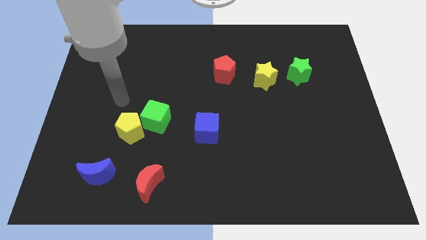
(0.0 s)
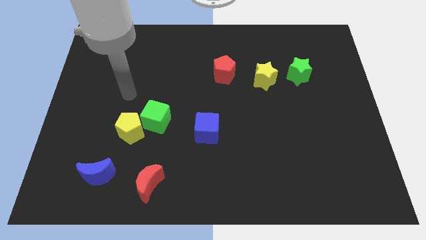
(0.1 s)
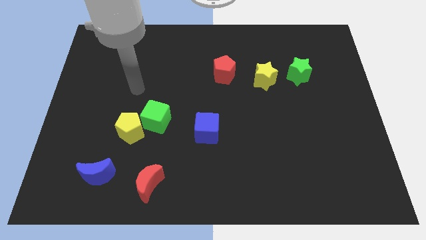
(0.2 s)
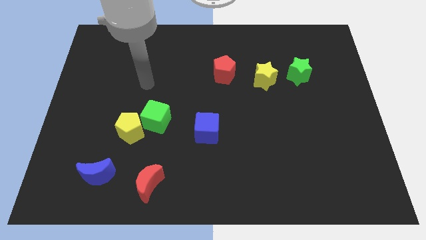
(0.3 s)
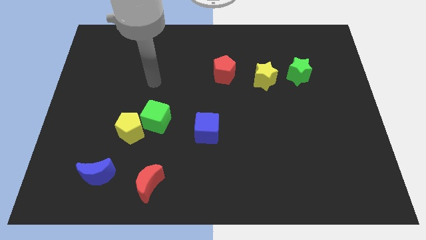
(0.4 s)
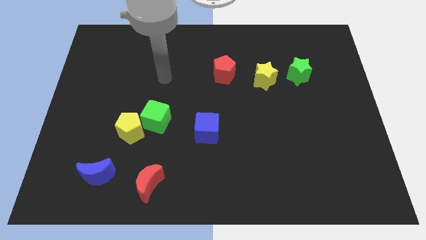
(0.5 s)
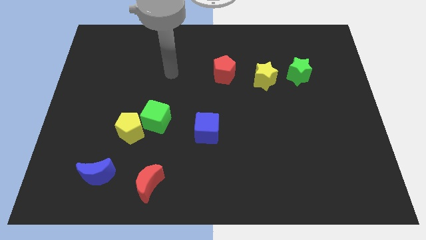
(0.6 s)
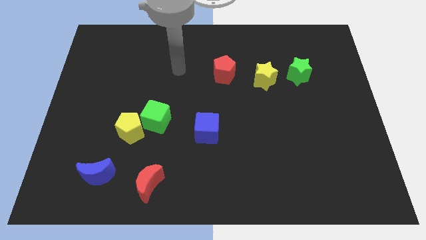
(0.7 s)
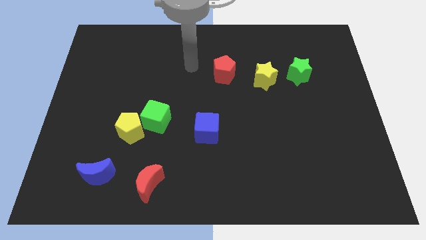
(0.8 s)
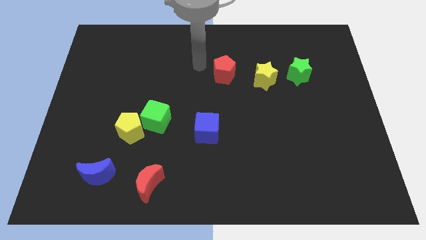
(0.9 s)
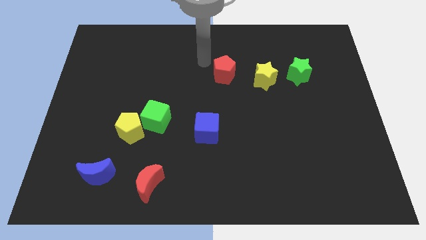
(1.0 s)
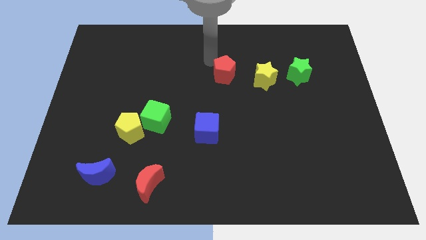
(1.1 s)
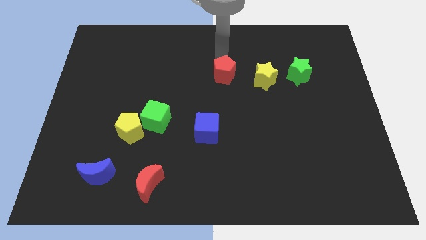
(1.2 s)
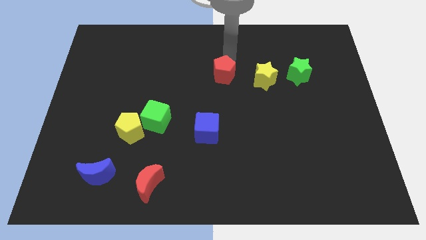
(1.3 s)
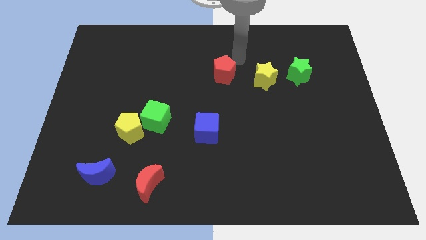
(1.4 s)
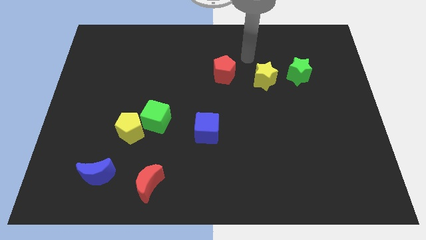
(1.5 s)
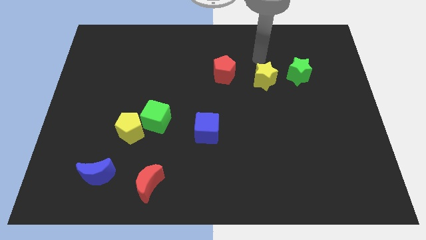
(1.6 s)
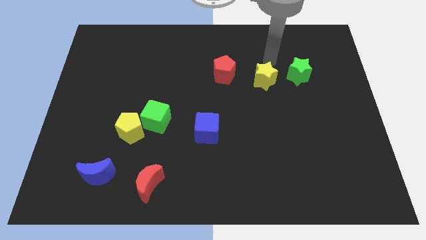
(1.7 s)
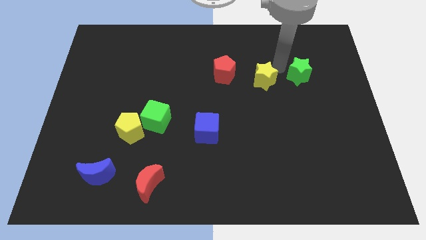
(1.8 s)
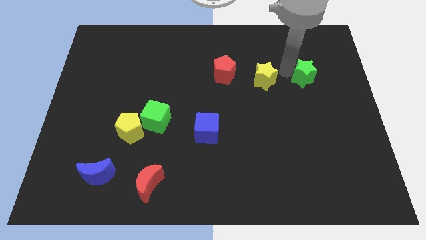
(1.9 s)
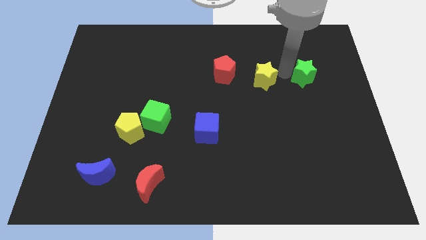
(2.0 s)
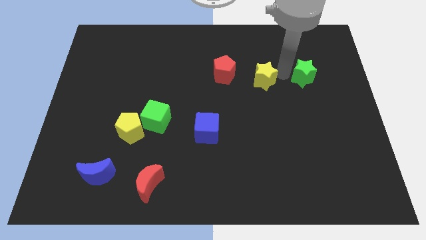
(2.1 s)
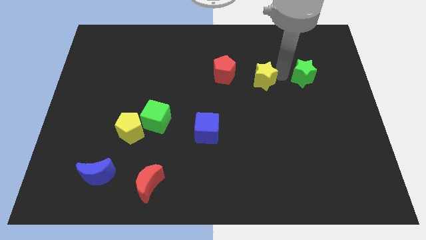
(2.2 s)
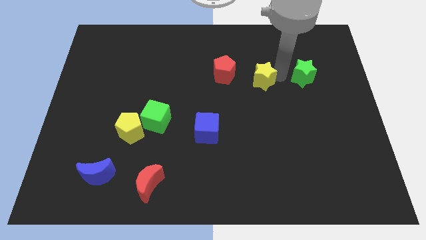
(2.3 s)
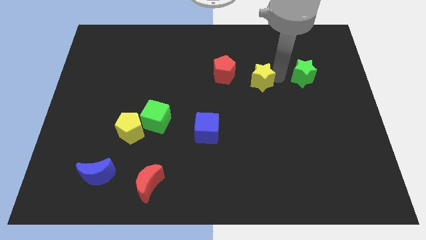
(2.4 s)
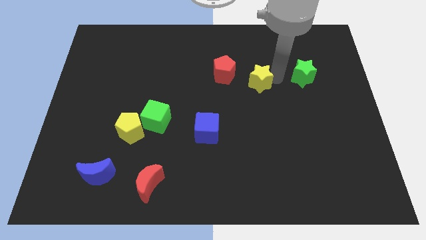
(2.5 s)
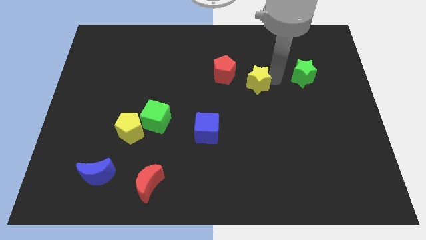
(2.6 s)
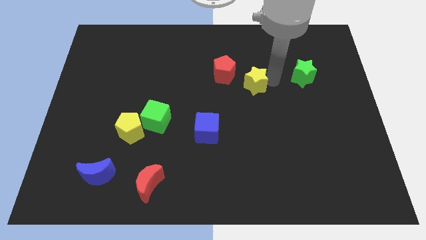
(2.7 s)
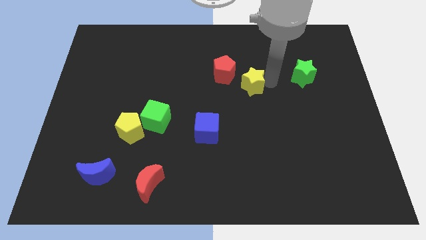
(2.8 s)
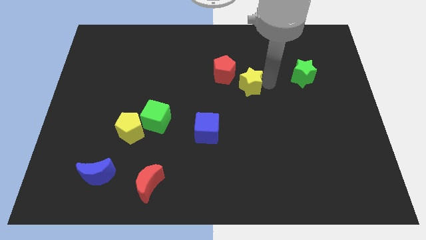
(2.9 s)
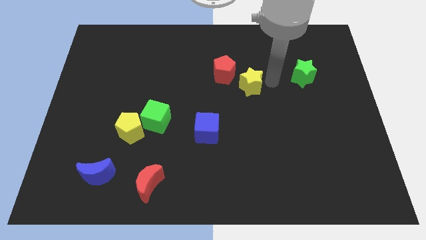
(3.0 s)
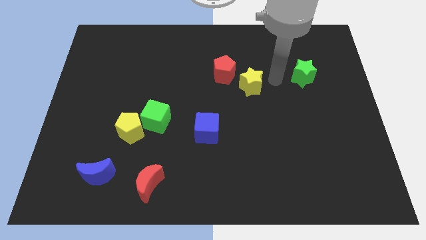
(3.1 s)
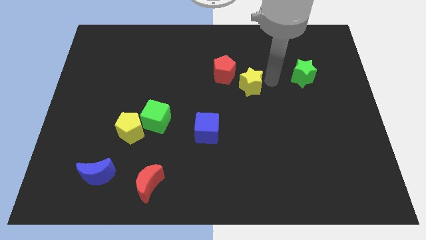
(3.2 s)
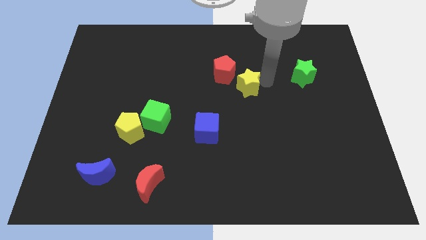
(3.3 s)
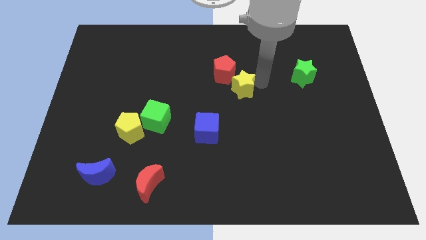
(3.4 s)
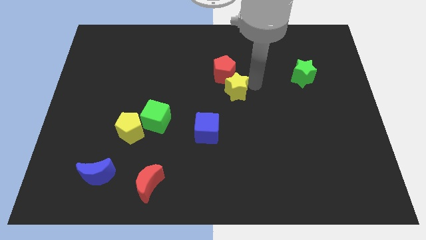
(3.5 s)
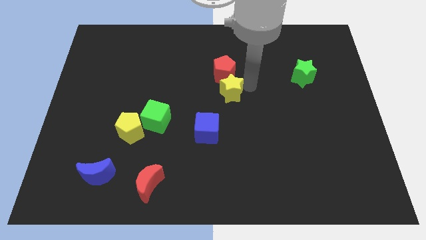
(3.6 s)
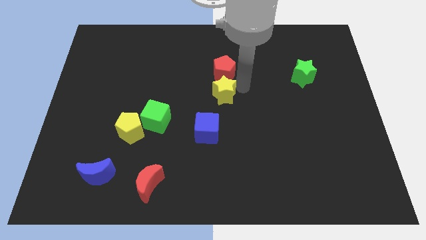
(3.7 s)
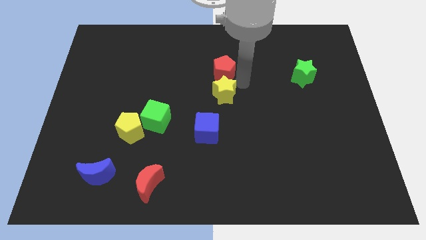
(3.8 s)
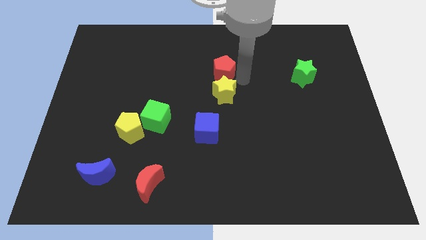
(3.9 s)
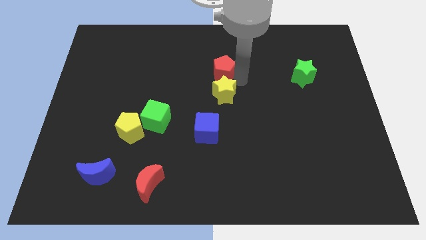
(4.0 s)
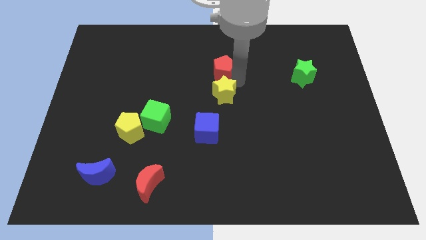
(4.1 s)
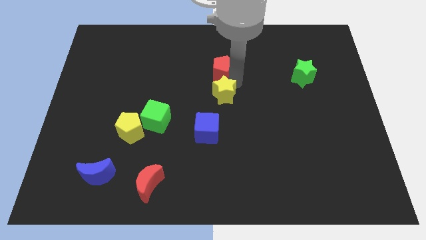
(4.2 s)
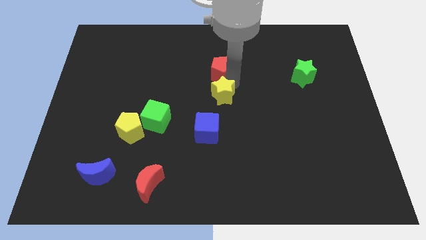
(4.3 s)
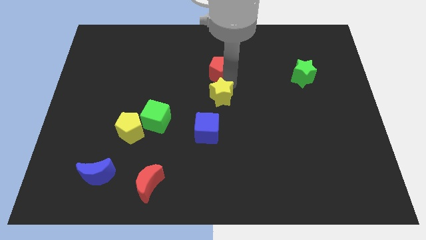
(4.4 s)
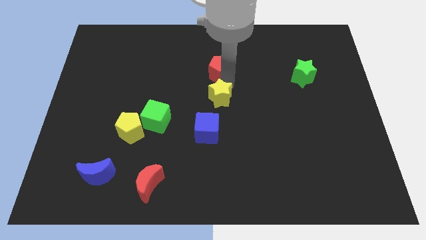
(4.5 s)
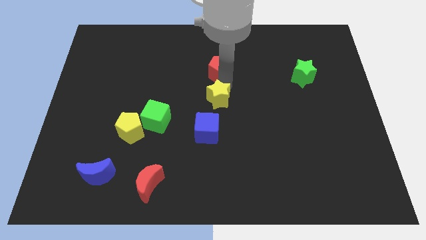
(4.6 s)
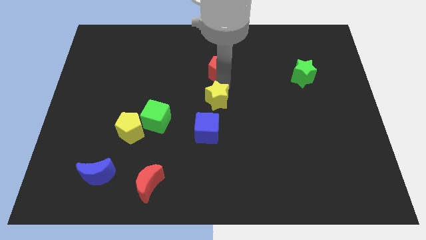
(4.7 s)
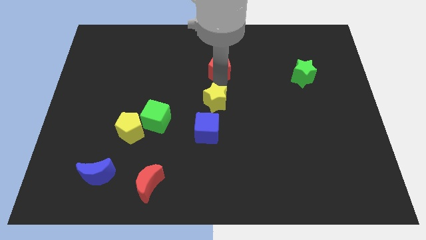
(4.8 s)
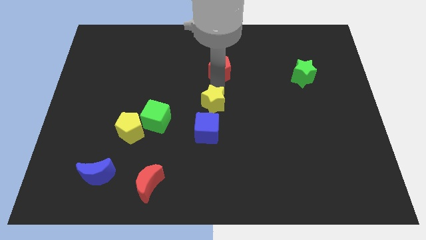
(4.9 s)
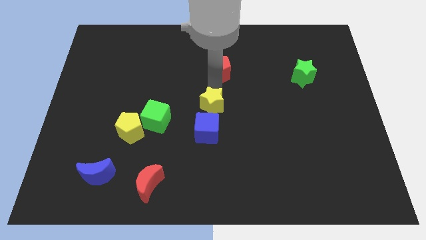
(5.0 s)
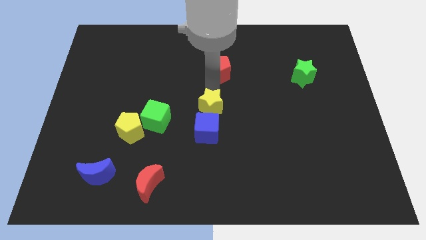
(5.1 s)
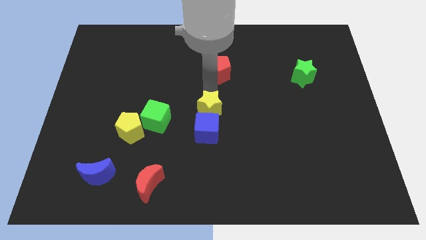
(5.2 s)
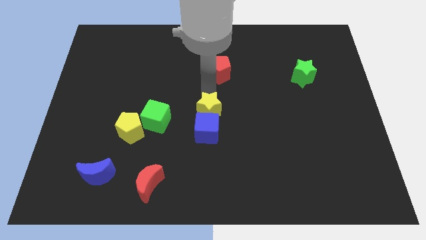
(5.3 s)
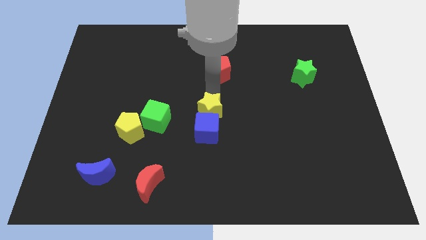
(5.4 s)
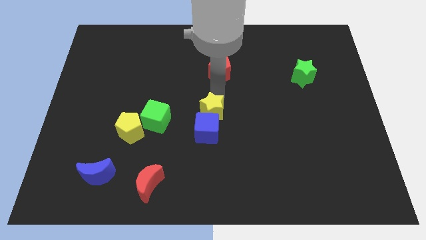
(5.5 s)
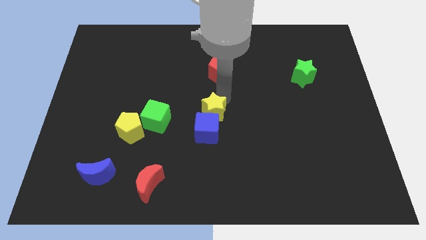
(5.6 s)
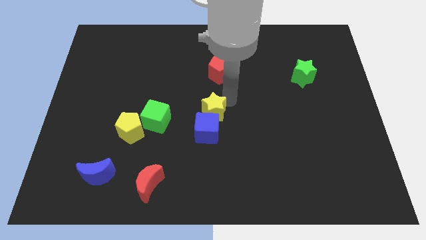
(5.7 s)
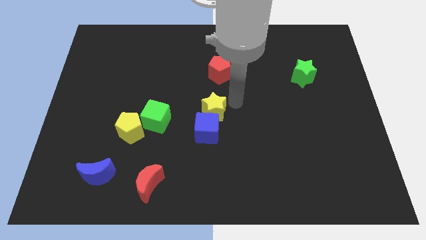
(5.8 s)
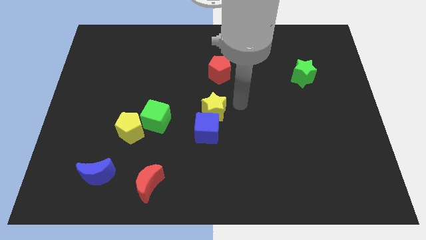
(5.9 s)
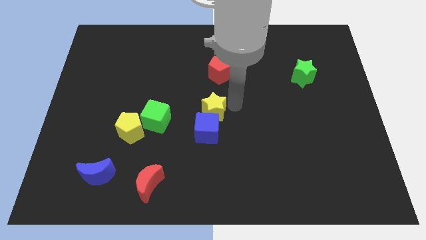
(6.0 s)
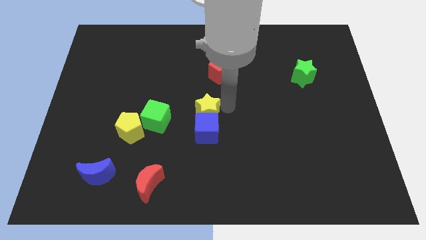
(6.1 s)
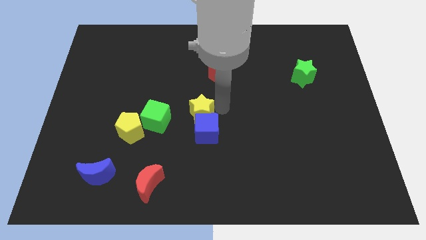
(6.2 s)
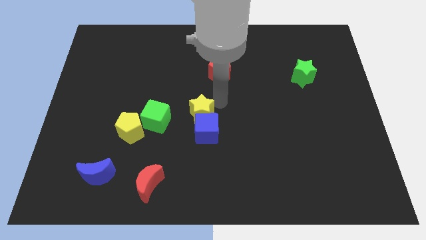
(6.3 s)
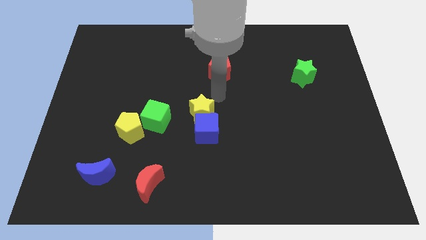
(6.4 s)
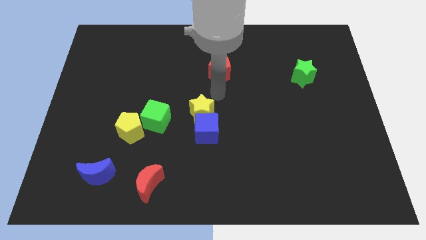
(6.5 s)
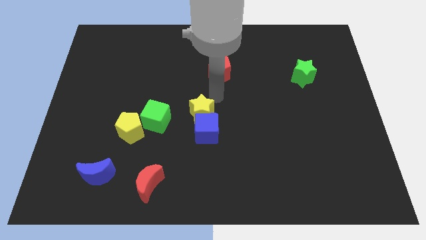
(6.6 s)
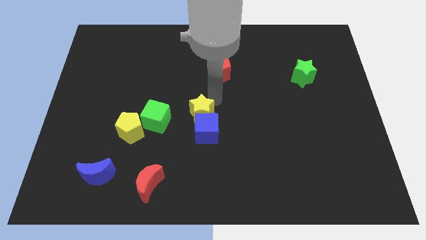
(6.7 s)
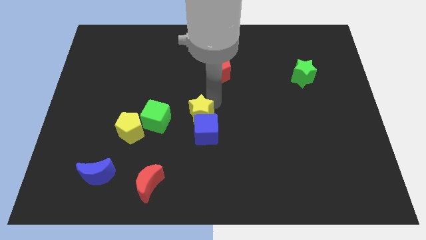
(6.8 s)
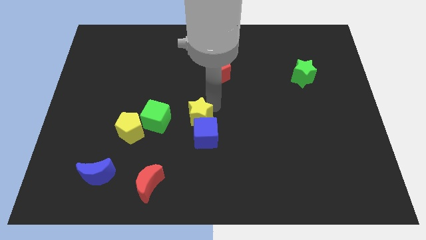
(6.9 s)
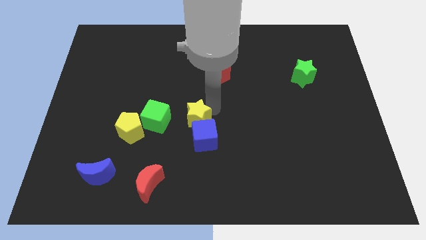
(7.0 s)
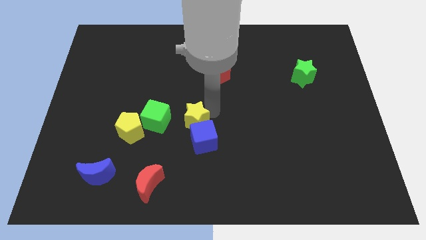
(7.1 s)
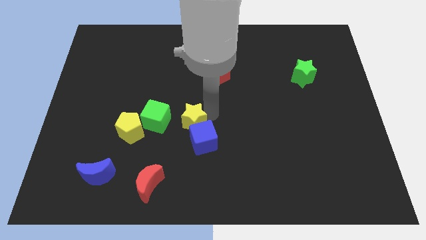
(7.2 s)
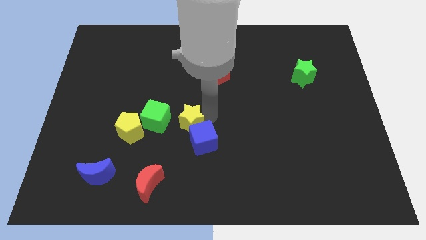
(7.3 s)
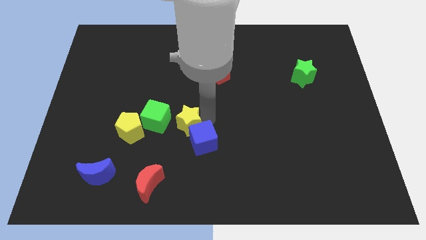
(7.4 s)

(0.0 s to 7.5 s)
slide the yellow star to the bottom right side of the green cube
